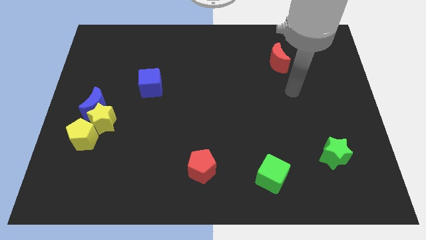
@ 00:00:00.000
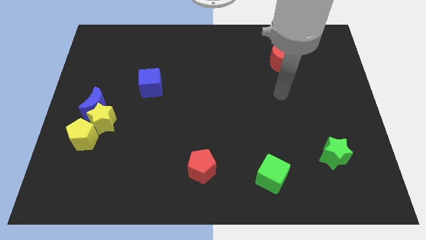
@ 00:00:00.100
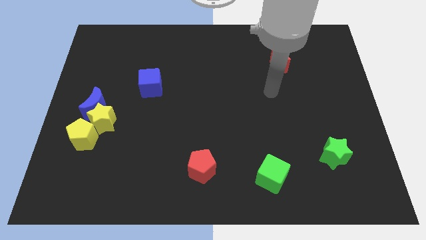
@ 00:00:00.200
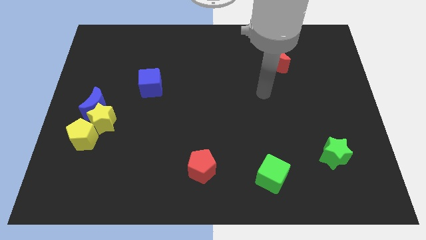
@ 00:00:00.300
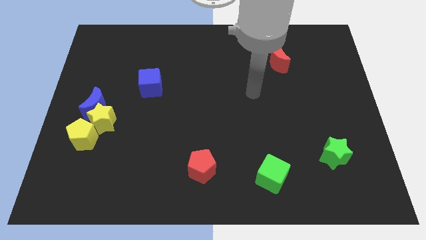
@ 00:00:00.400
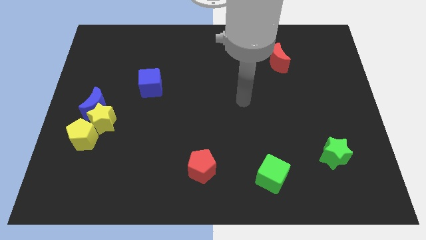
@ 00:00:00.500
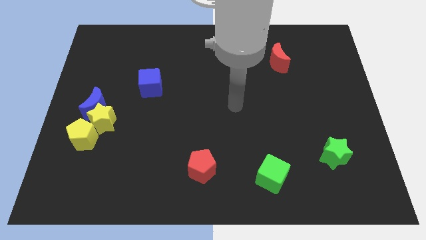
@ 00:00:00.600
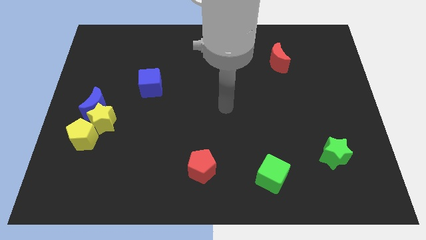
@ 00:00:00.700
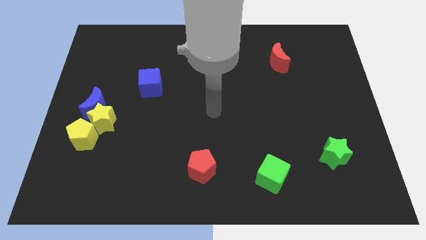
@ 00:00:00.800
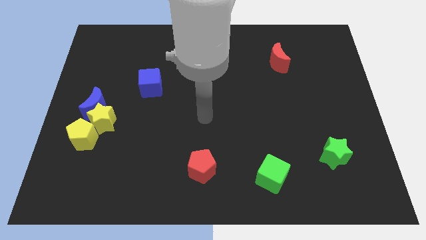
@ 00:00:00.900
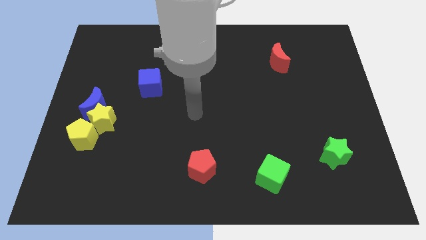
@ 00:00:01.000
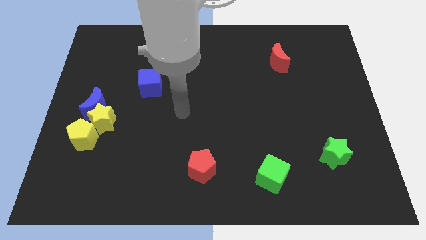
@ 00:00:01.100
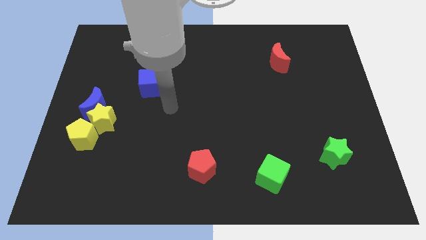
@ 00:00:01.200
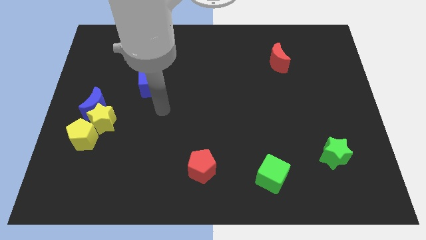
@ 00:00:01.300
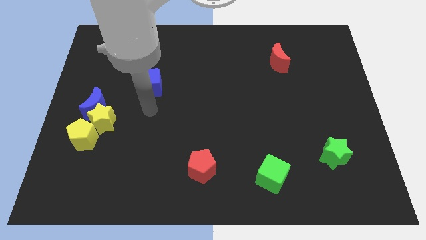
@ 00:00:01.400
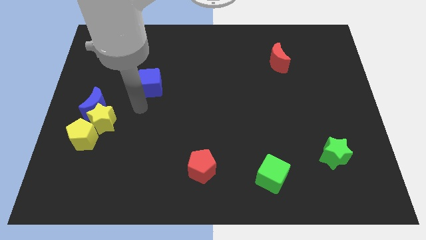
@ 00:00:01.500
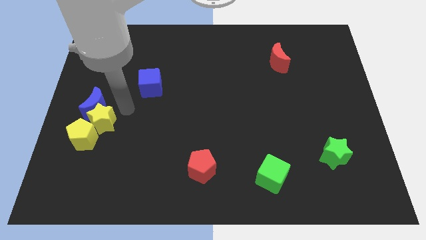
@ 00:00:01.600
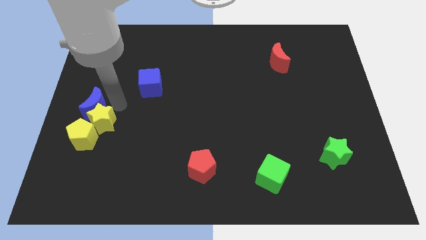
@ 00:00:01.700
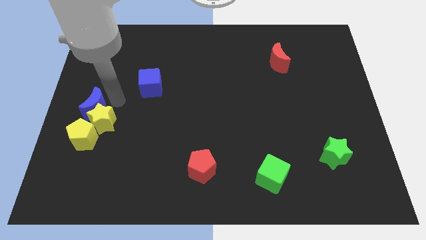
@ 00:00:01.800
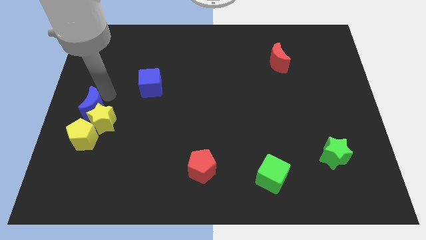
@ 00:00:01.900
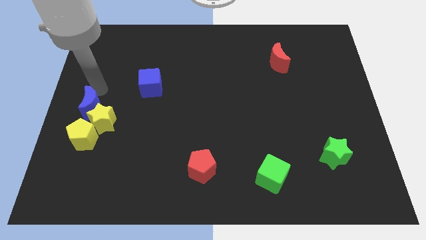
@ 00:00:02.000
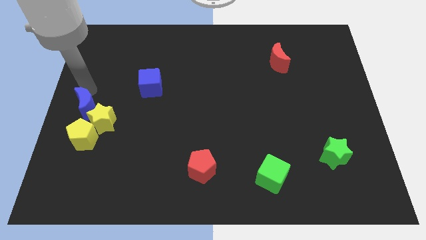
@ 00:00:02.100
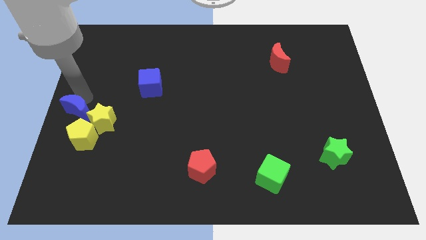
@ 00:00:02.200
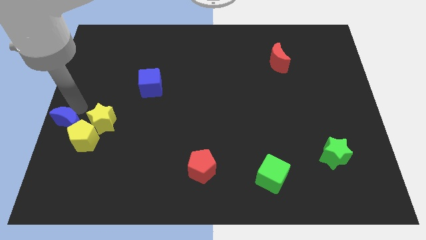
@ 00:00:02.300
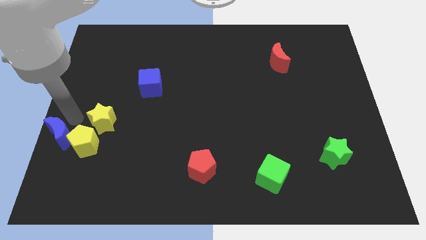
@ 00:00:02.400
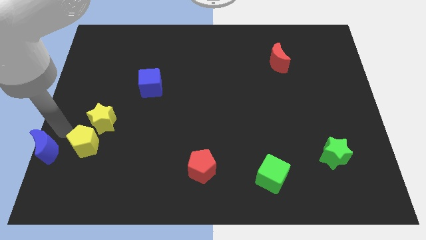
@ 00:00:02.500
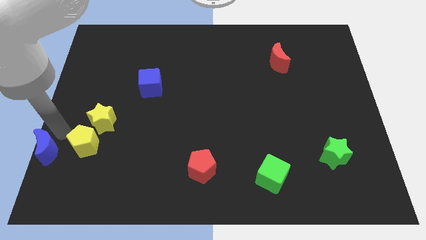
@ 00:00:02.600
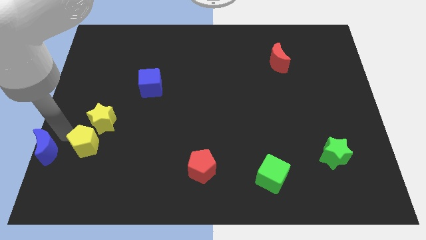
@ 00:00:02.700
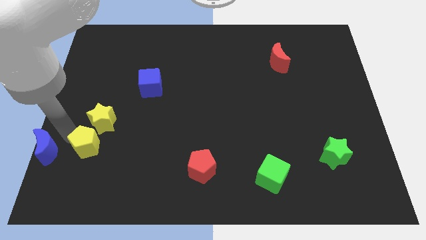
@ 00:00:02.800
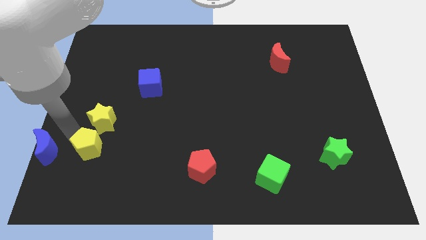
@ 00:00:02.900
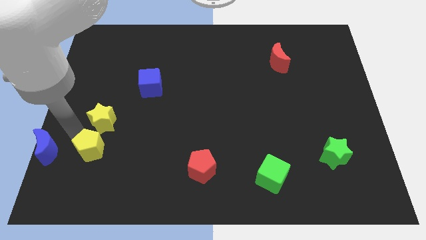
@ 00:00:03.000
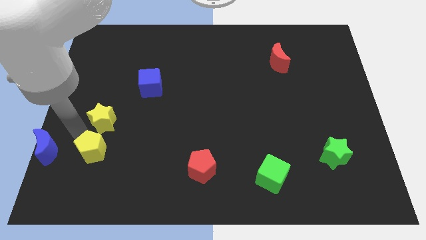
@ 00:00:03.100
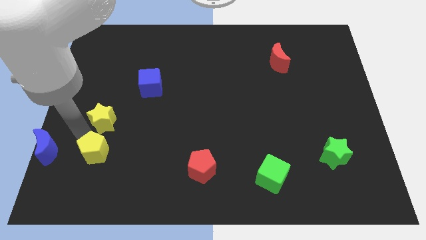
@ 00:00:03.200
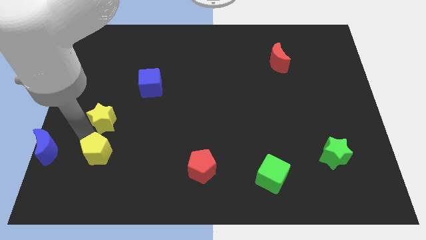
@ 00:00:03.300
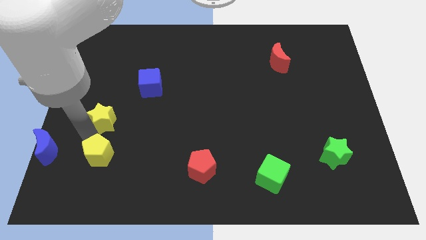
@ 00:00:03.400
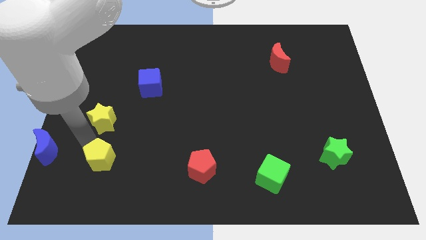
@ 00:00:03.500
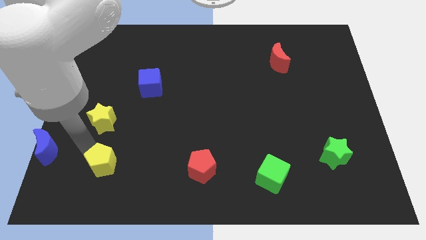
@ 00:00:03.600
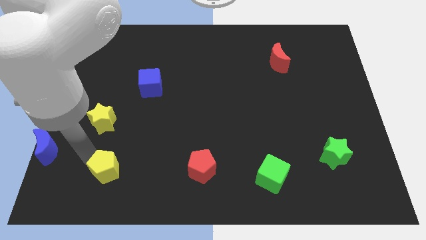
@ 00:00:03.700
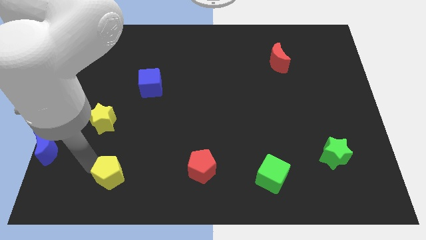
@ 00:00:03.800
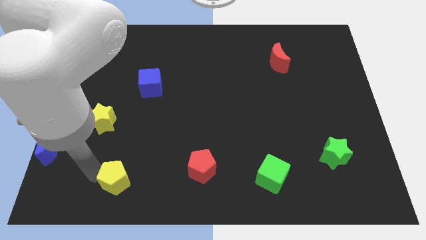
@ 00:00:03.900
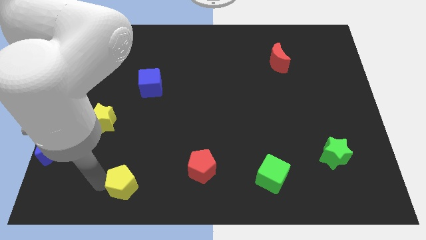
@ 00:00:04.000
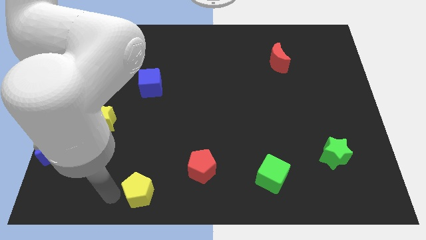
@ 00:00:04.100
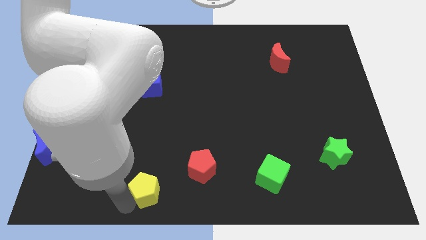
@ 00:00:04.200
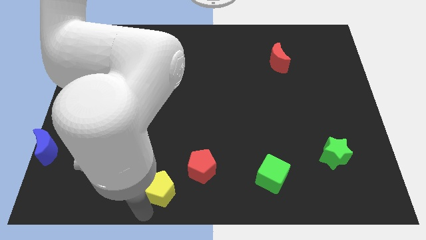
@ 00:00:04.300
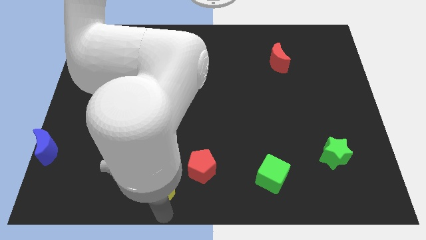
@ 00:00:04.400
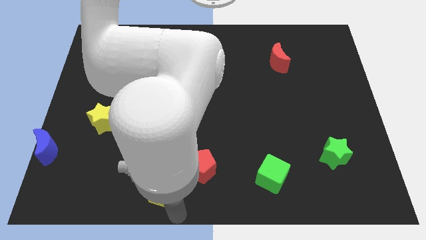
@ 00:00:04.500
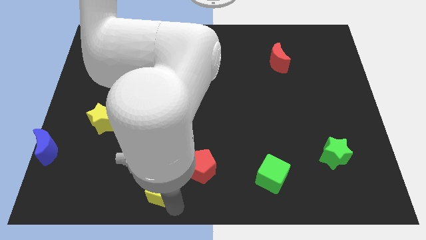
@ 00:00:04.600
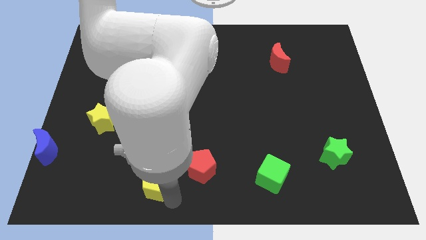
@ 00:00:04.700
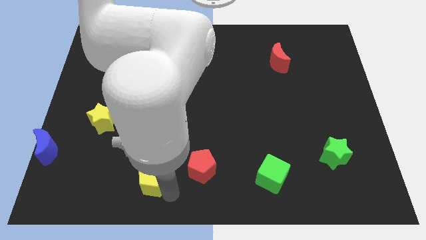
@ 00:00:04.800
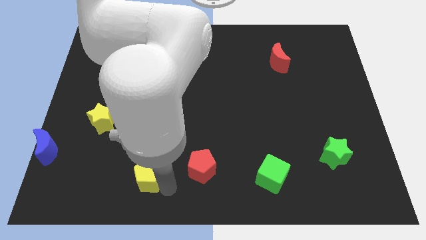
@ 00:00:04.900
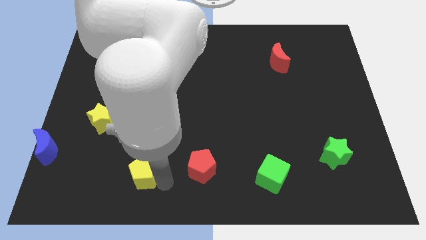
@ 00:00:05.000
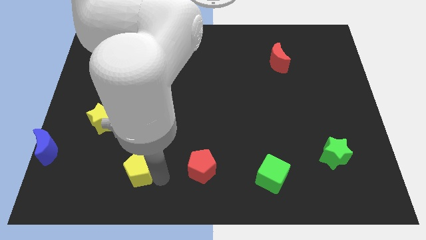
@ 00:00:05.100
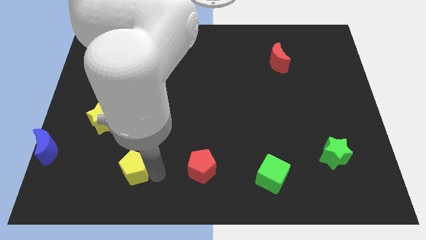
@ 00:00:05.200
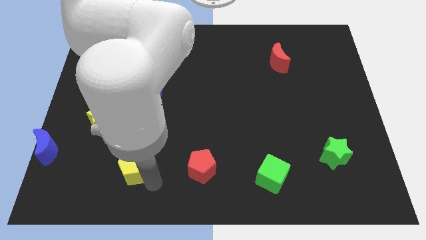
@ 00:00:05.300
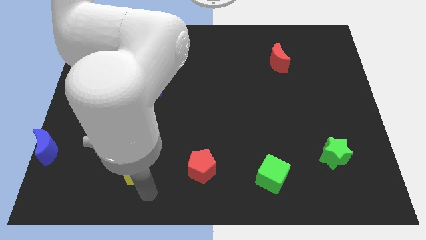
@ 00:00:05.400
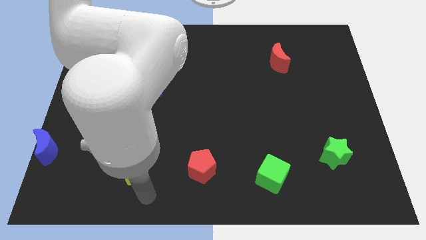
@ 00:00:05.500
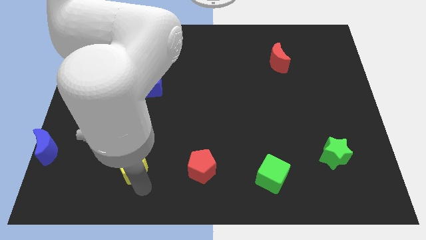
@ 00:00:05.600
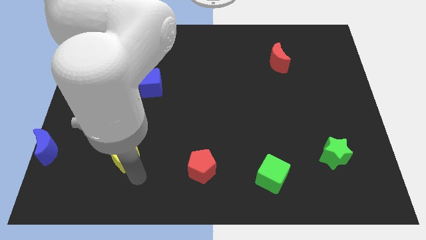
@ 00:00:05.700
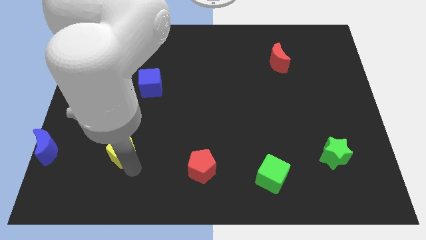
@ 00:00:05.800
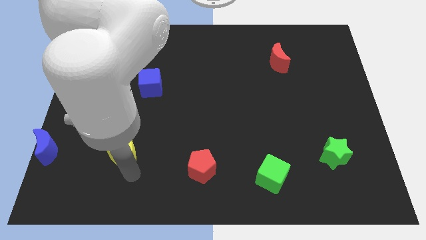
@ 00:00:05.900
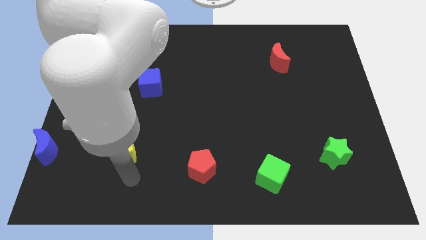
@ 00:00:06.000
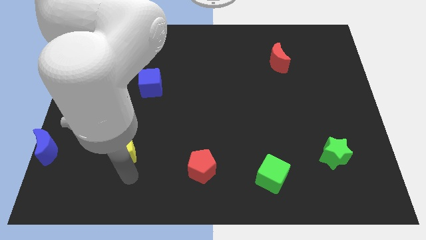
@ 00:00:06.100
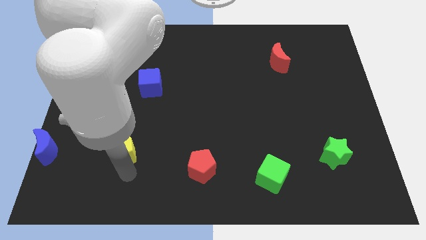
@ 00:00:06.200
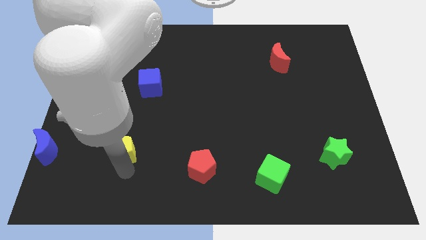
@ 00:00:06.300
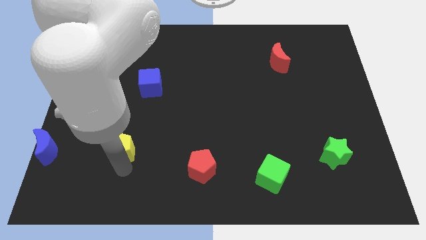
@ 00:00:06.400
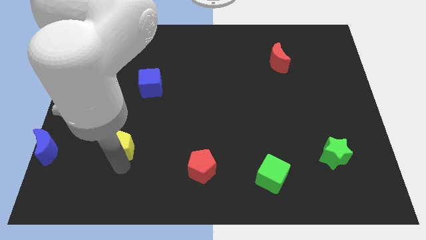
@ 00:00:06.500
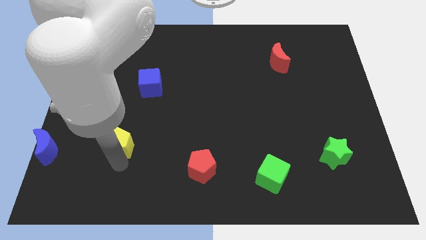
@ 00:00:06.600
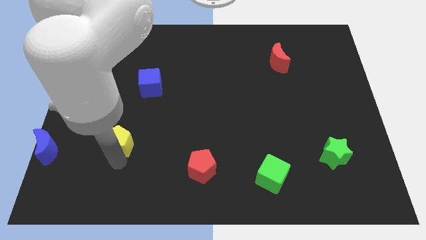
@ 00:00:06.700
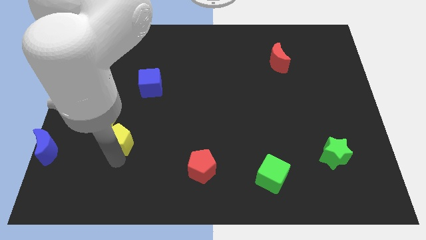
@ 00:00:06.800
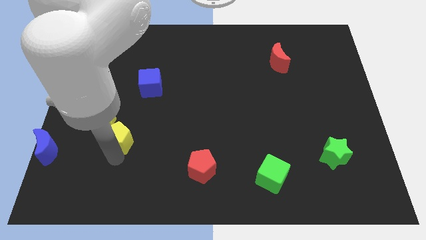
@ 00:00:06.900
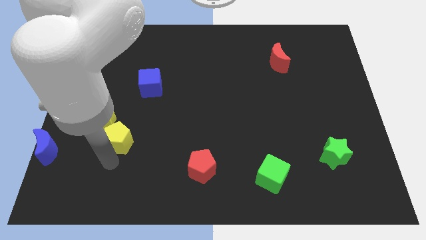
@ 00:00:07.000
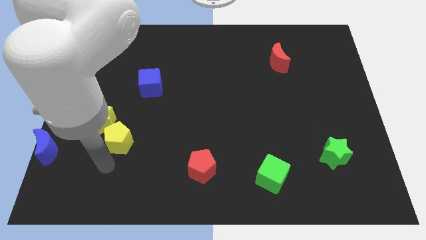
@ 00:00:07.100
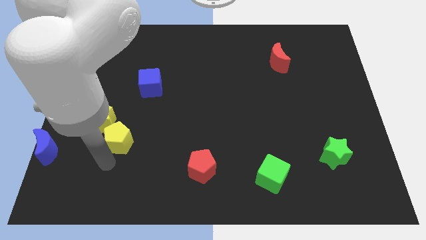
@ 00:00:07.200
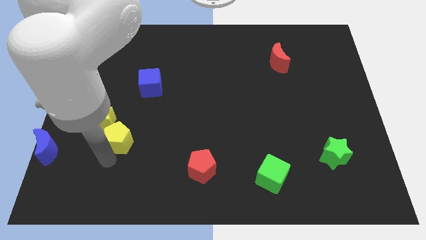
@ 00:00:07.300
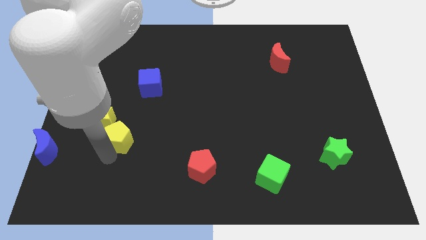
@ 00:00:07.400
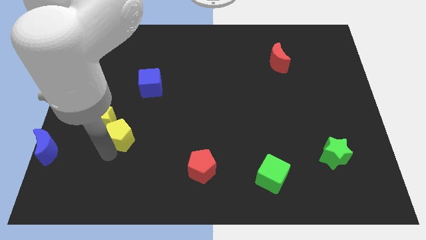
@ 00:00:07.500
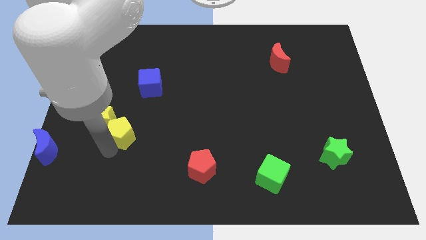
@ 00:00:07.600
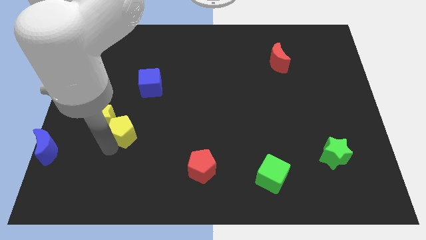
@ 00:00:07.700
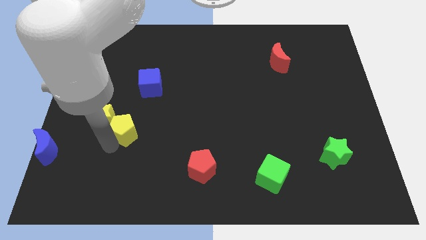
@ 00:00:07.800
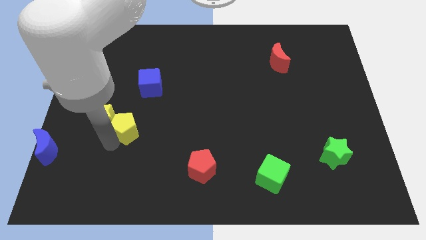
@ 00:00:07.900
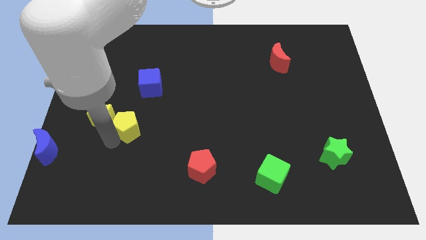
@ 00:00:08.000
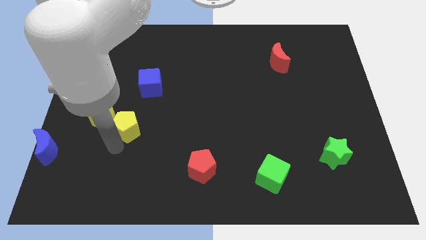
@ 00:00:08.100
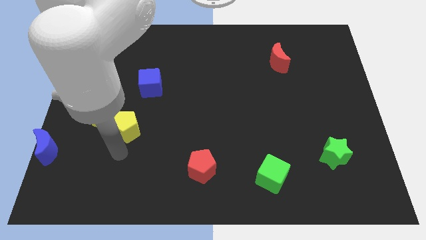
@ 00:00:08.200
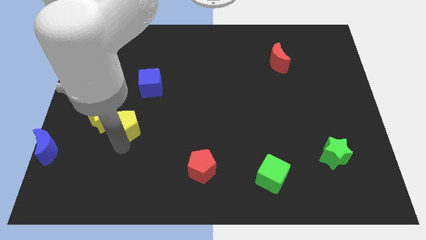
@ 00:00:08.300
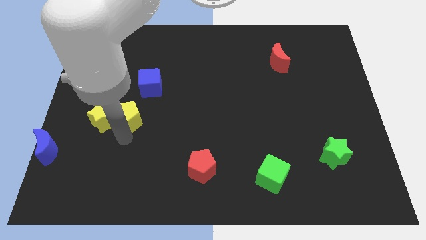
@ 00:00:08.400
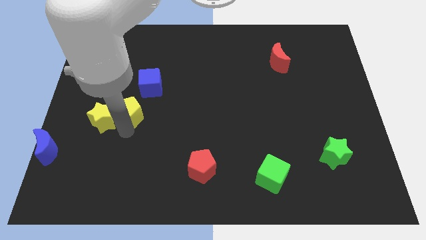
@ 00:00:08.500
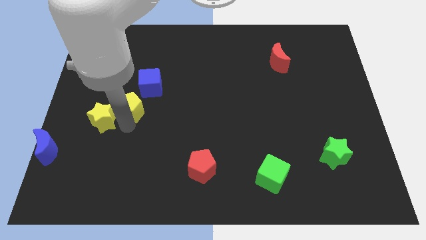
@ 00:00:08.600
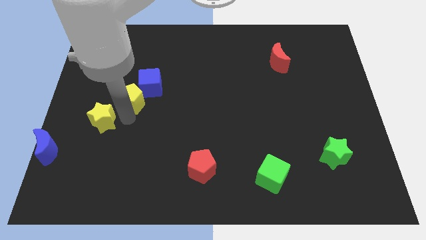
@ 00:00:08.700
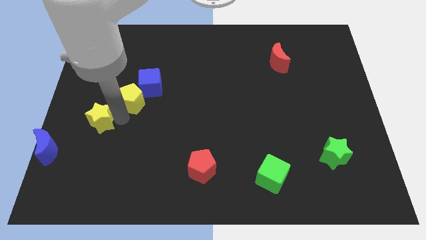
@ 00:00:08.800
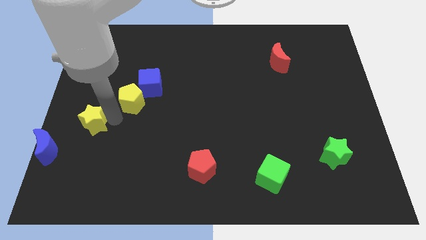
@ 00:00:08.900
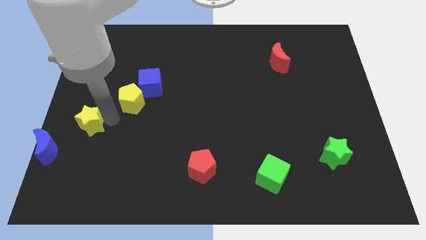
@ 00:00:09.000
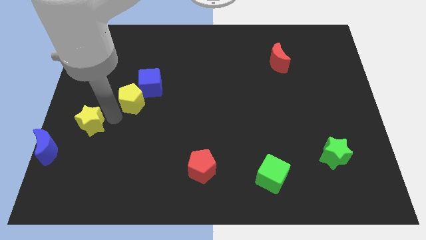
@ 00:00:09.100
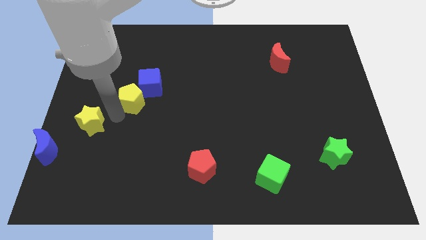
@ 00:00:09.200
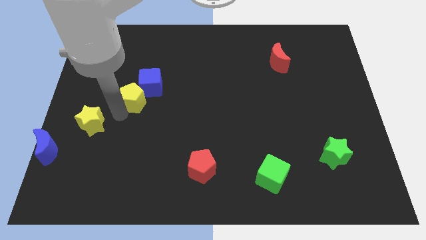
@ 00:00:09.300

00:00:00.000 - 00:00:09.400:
put the yellow pentagon close to the blue cube
